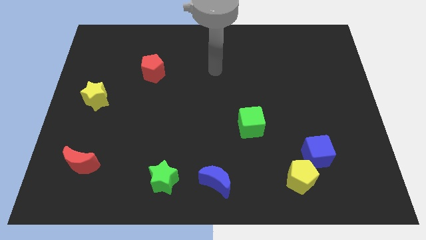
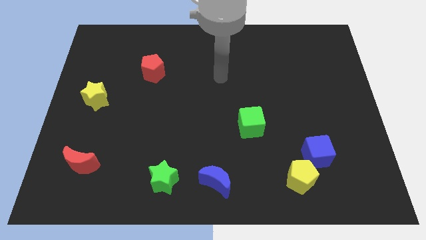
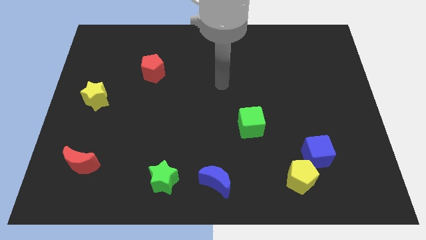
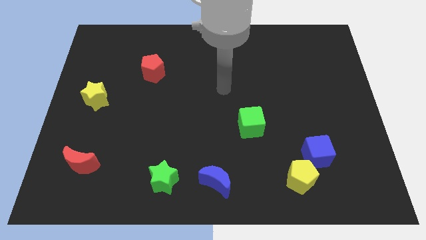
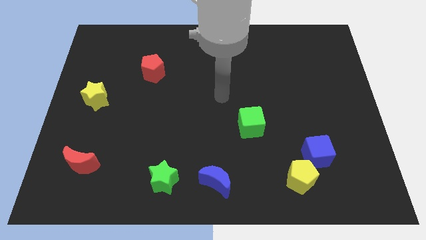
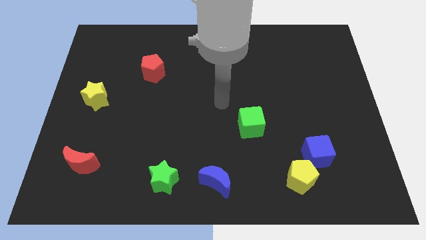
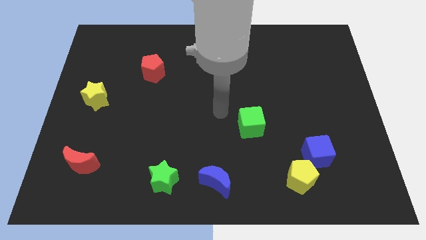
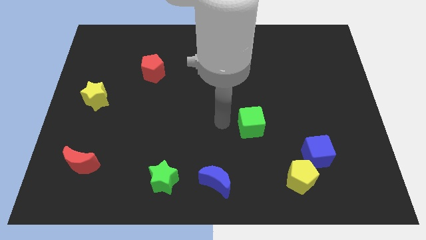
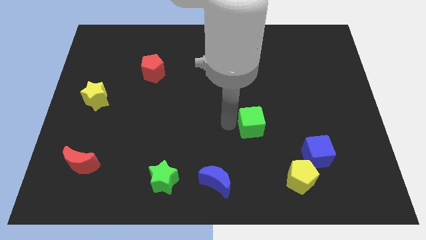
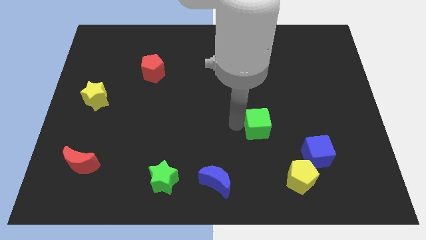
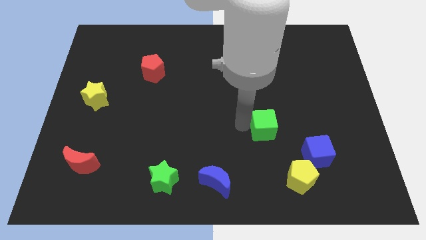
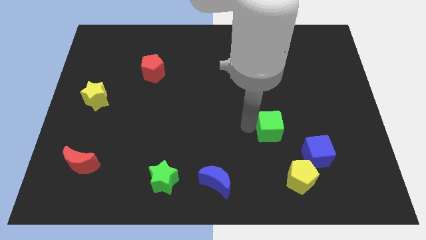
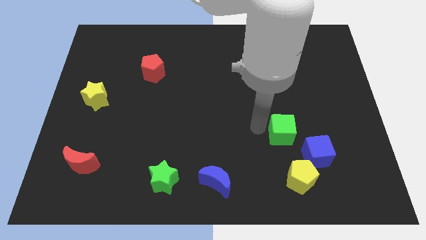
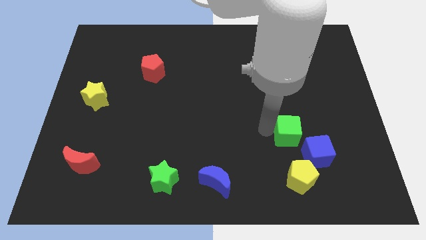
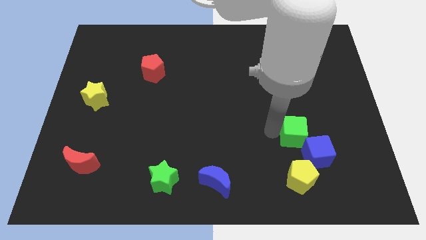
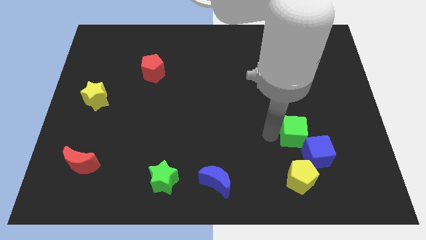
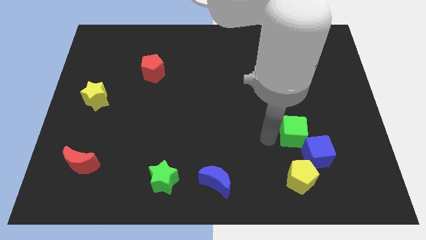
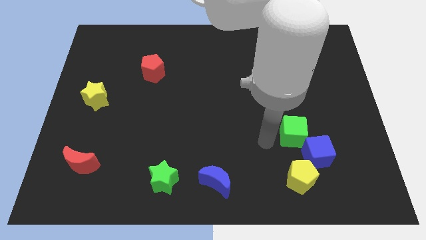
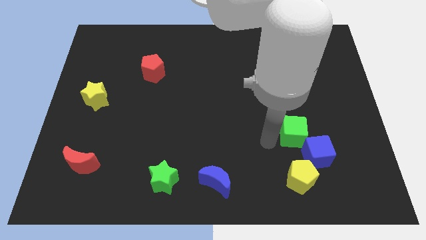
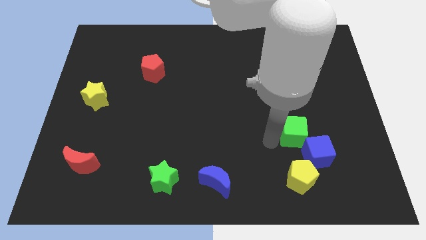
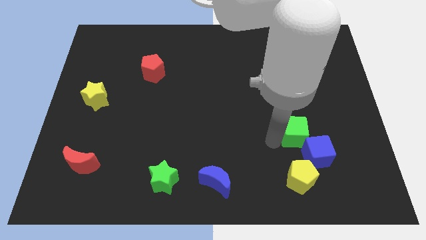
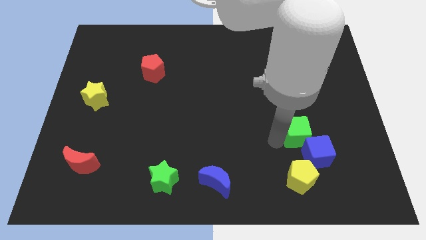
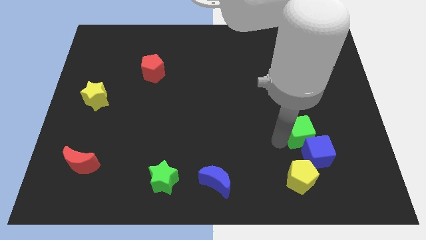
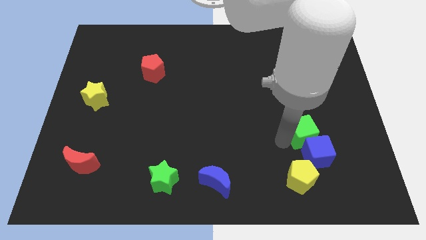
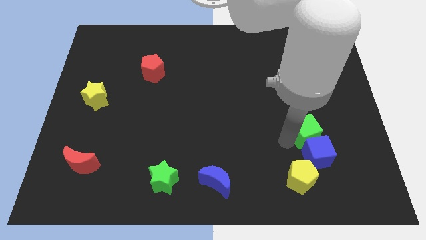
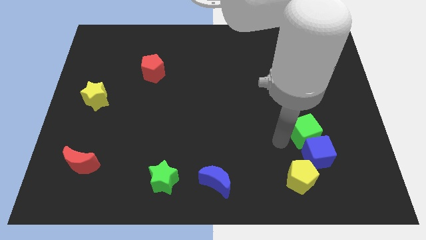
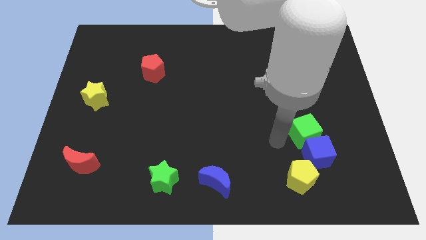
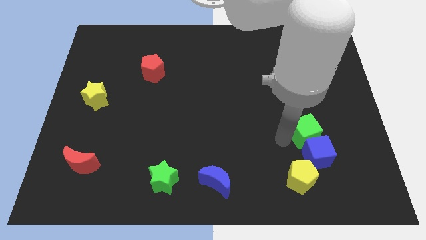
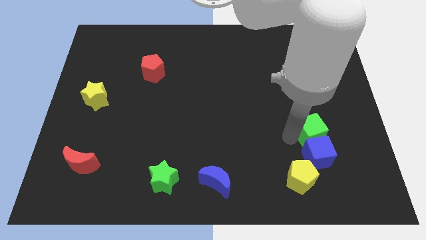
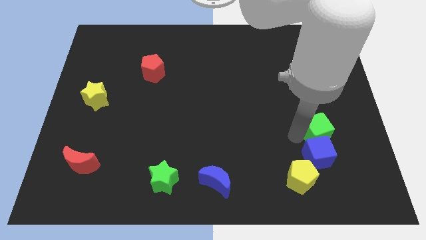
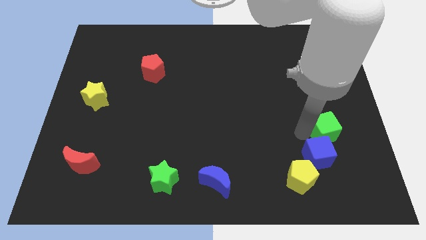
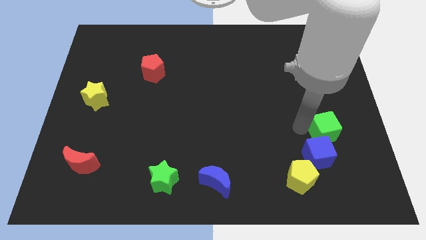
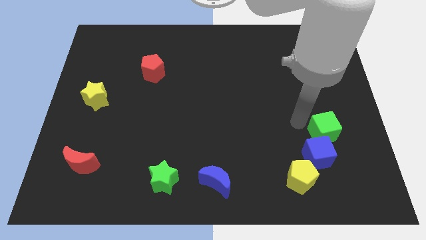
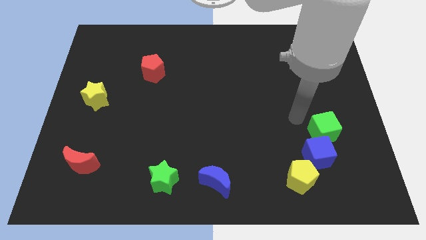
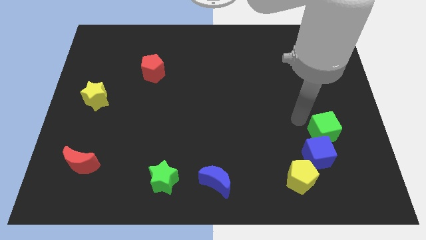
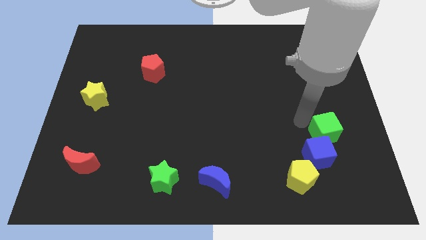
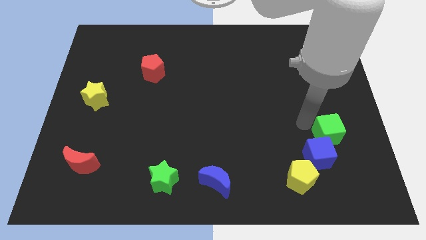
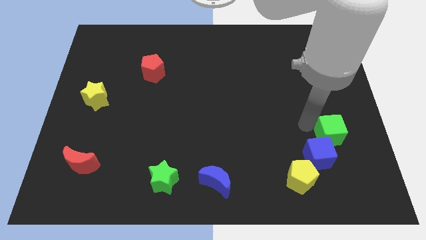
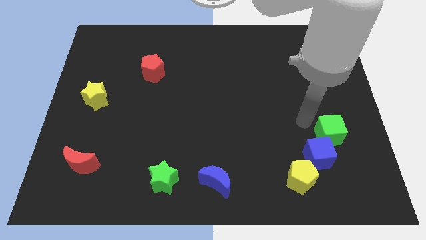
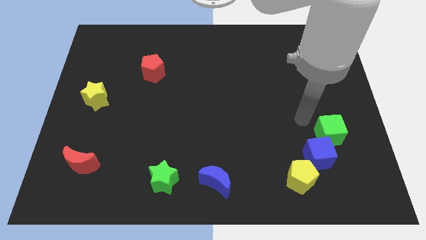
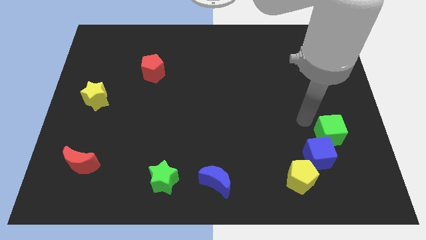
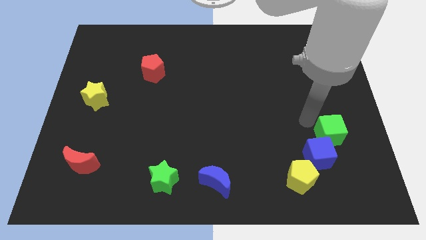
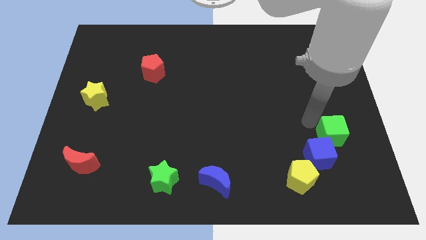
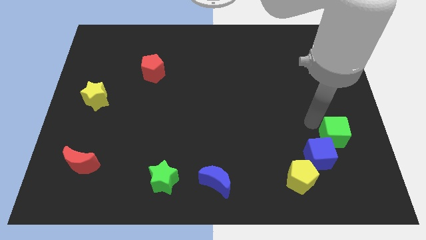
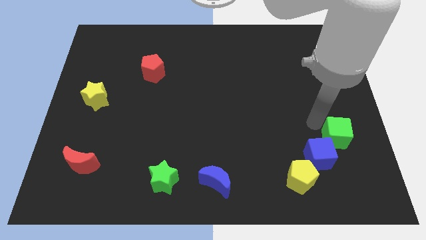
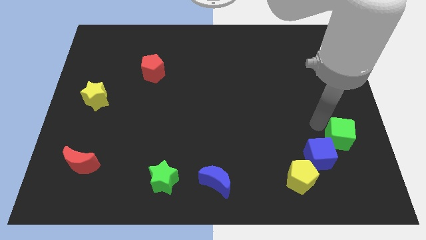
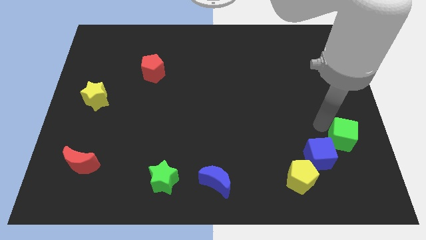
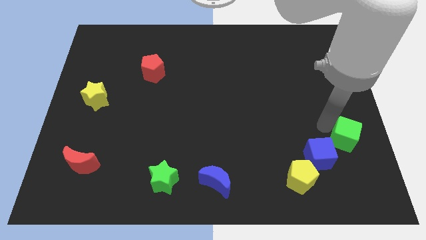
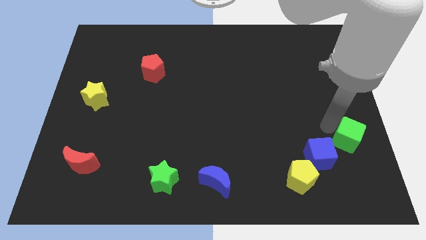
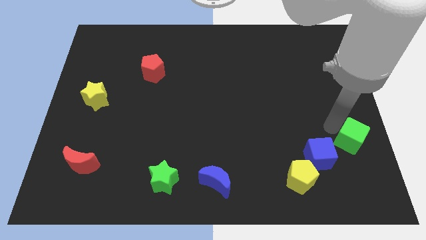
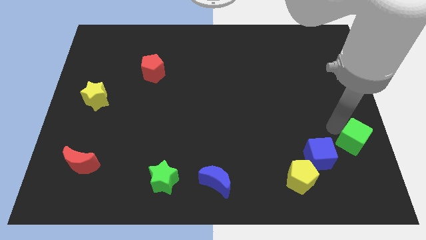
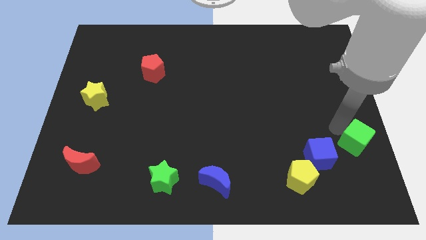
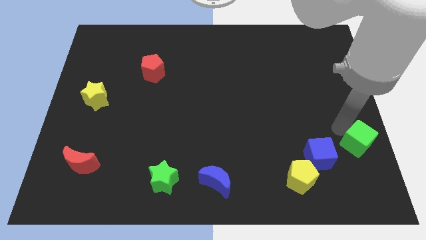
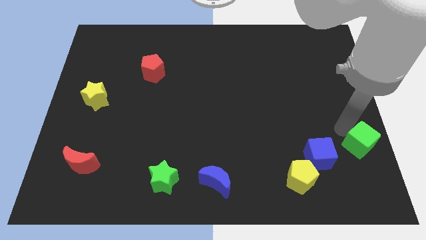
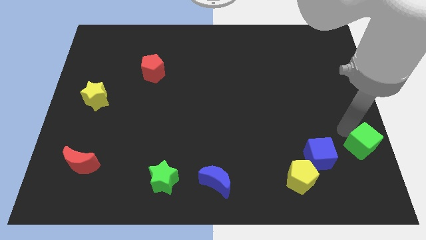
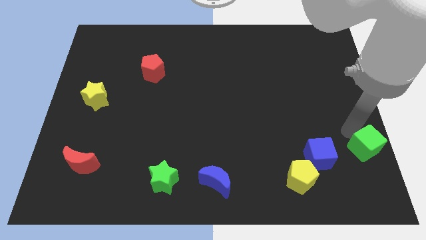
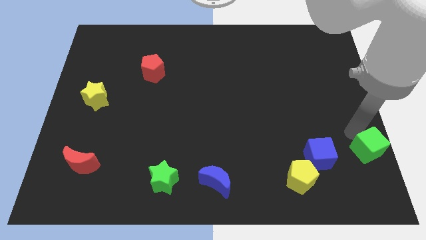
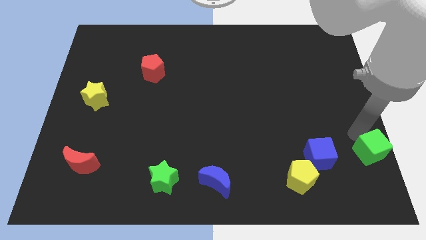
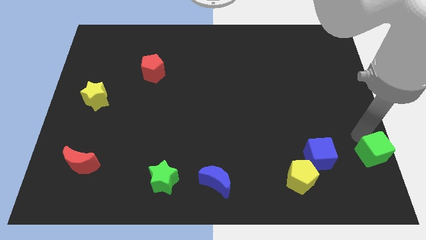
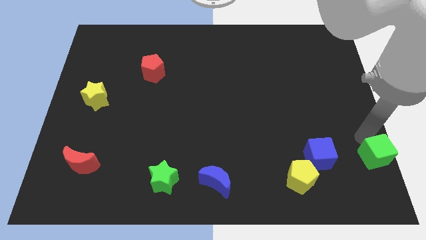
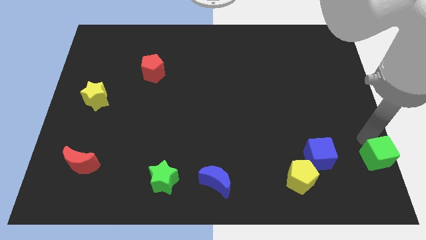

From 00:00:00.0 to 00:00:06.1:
slide the green cube to the bottom right

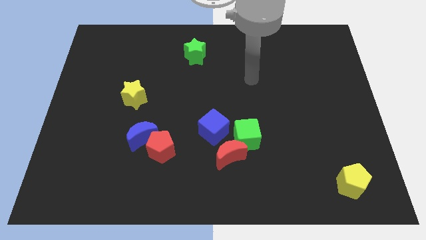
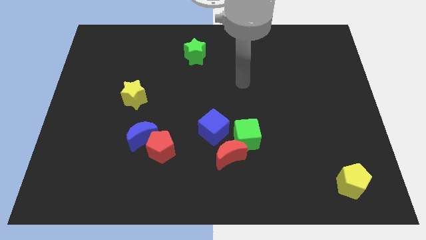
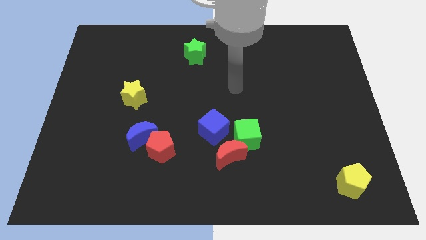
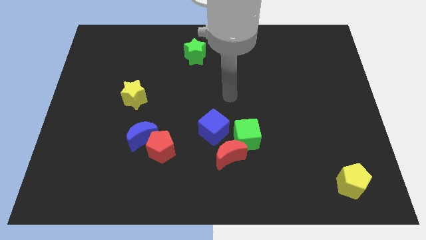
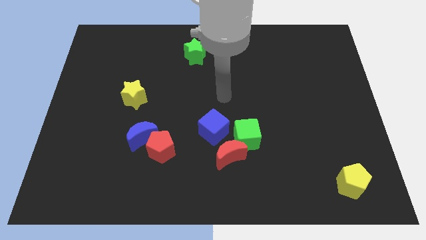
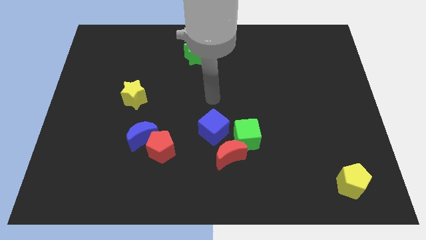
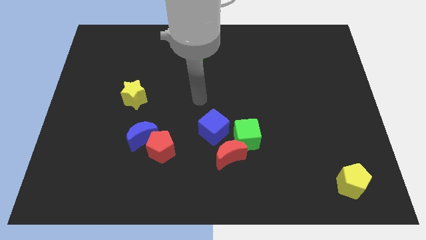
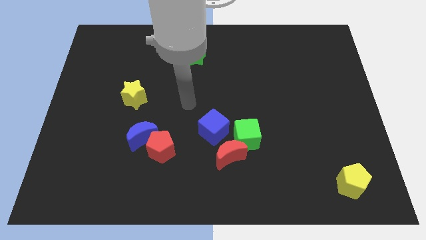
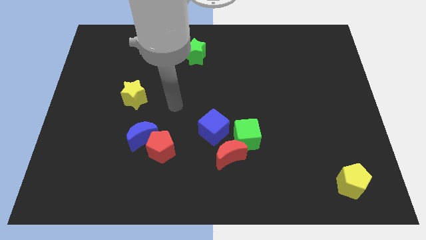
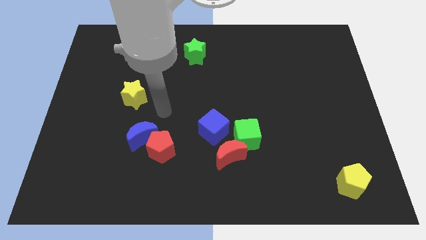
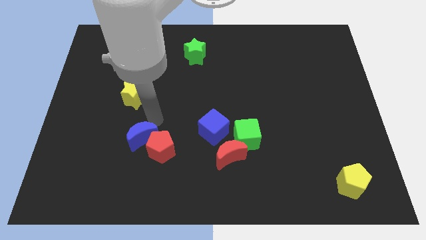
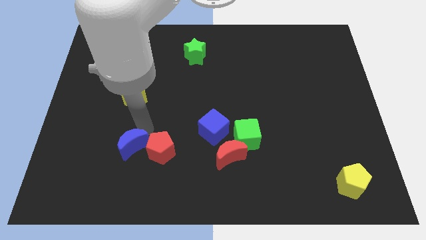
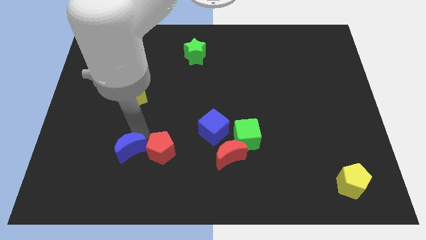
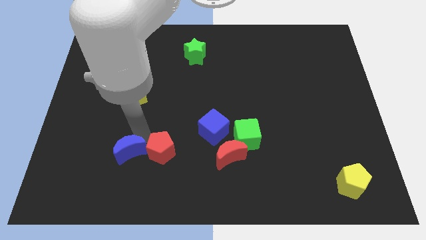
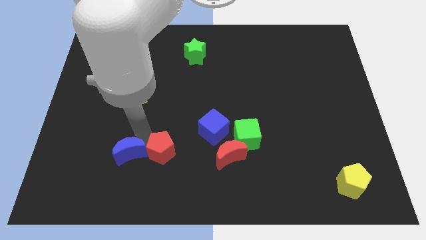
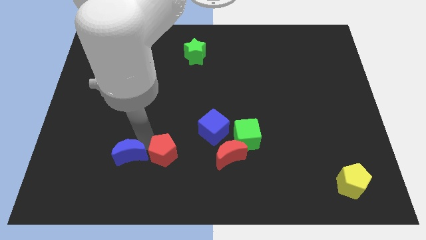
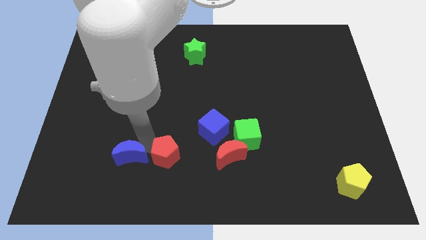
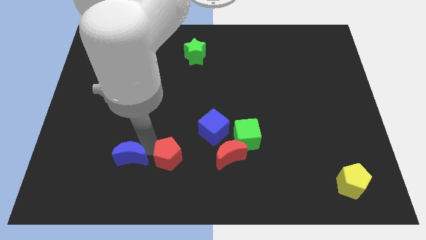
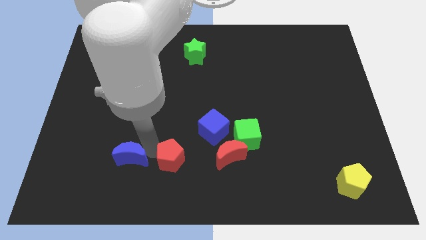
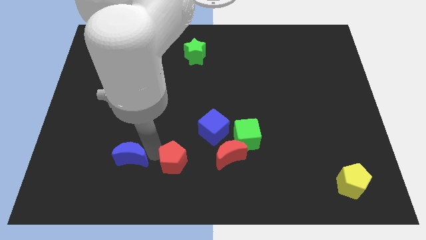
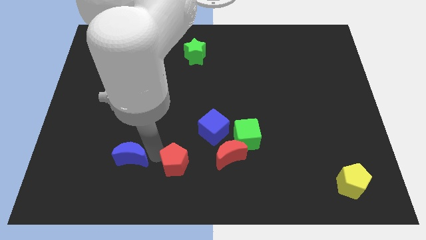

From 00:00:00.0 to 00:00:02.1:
put the red pentagon to the bottom
